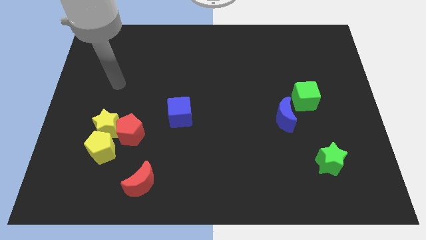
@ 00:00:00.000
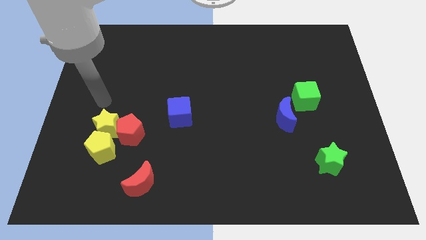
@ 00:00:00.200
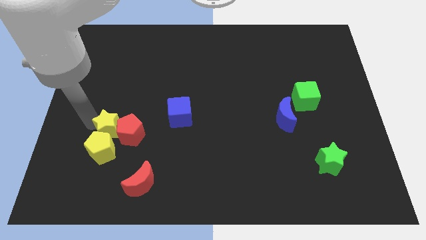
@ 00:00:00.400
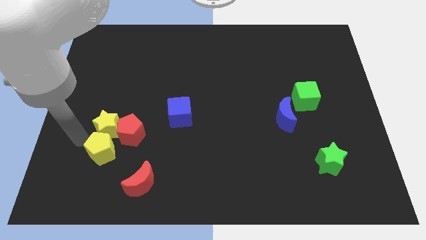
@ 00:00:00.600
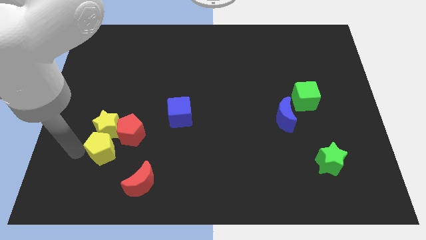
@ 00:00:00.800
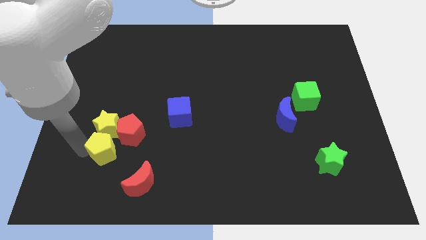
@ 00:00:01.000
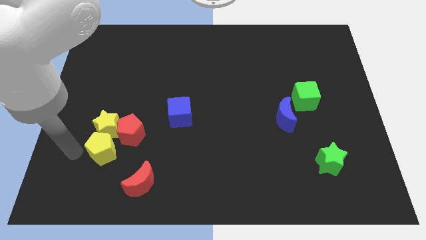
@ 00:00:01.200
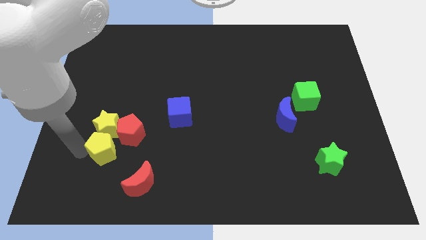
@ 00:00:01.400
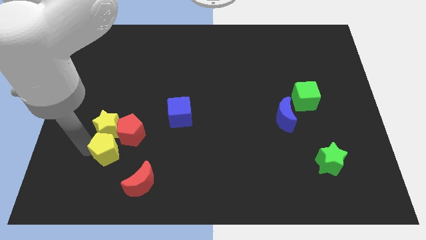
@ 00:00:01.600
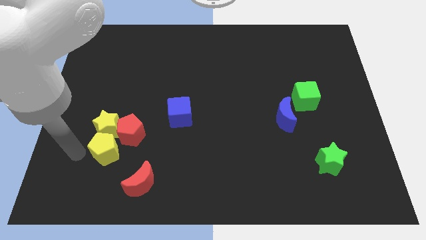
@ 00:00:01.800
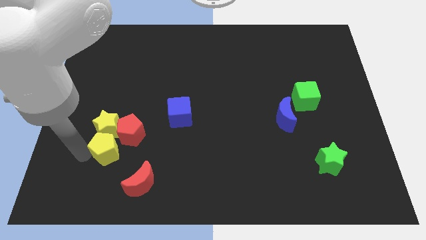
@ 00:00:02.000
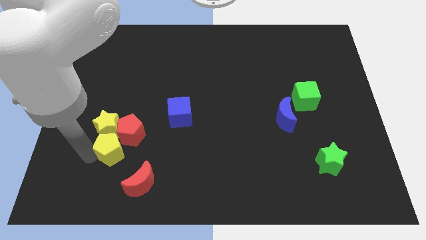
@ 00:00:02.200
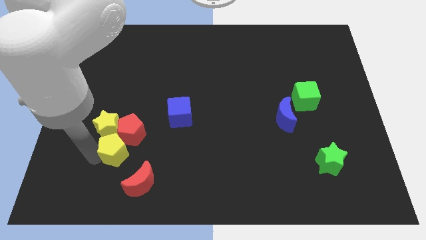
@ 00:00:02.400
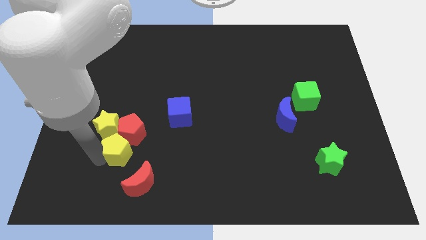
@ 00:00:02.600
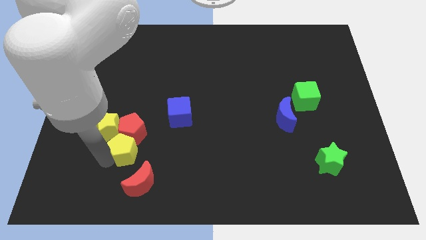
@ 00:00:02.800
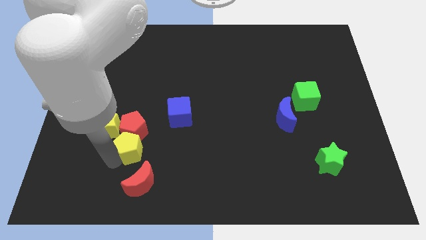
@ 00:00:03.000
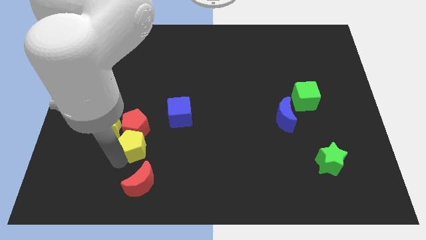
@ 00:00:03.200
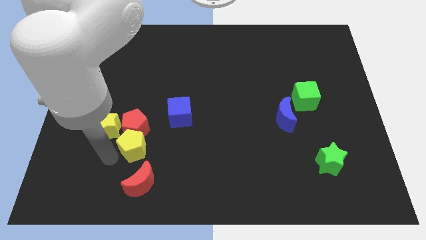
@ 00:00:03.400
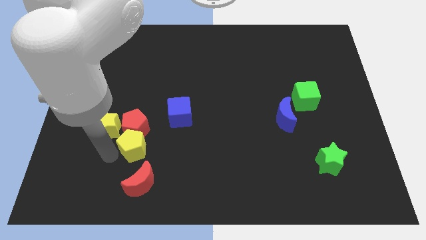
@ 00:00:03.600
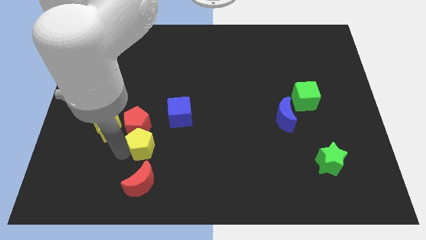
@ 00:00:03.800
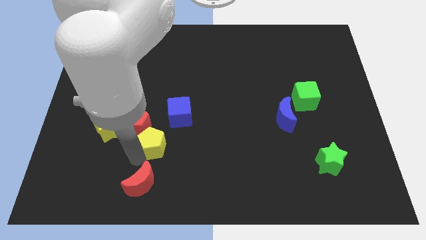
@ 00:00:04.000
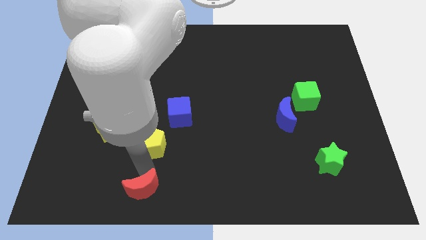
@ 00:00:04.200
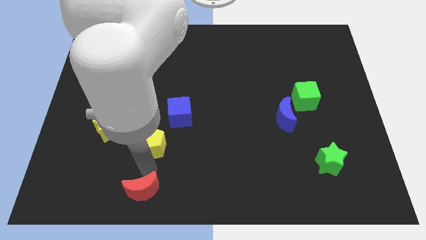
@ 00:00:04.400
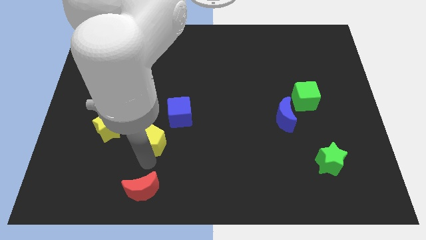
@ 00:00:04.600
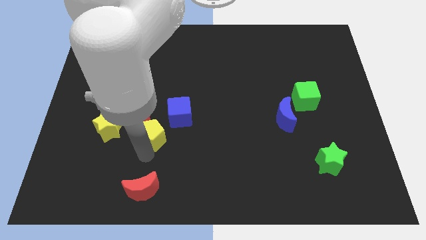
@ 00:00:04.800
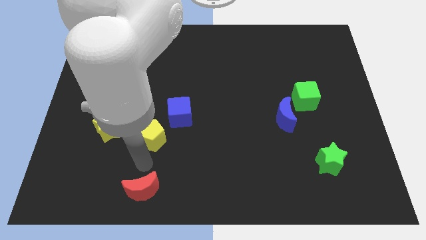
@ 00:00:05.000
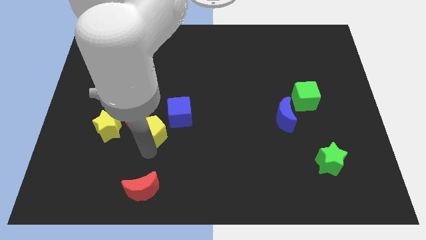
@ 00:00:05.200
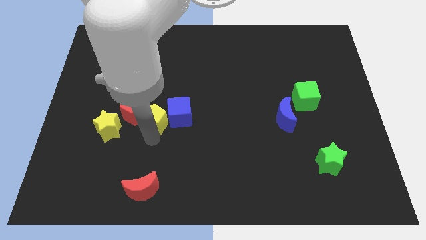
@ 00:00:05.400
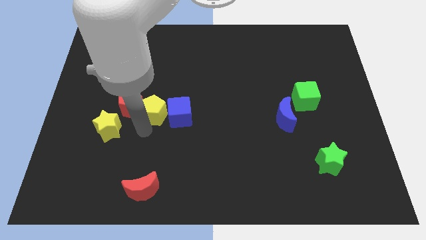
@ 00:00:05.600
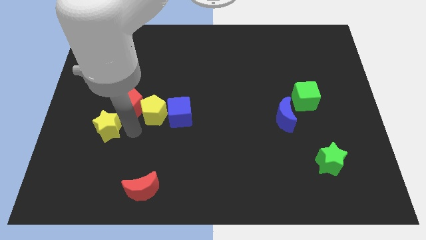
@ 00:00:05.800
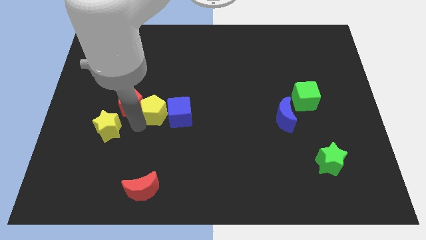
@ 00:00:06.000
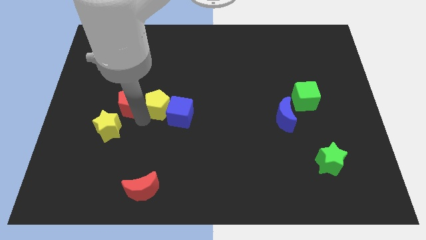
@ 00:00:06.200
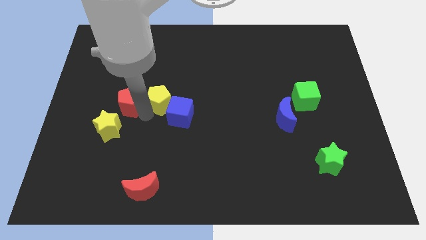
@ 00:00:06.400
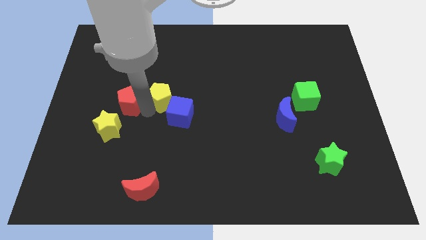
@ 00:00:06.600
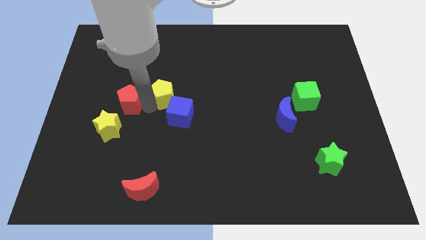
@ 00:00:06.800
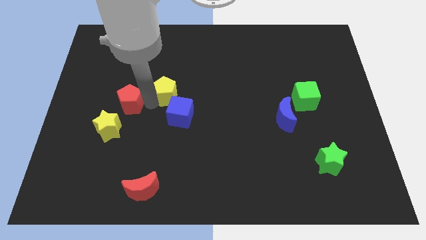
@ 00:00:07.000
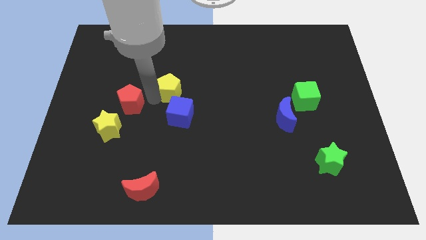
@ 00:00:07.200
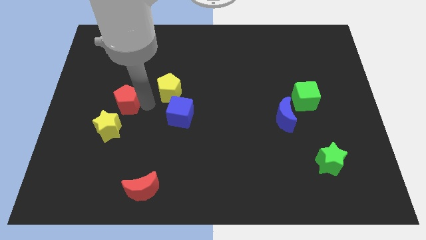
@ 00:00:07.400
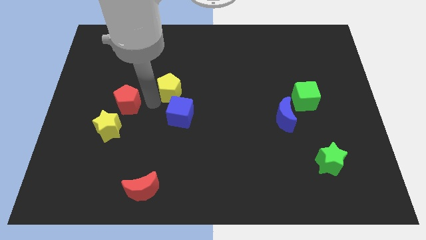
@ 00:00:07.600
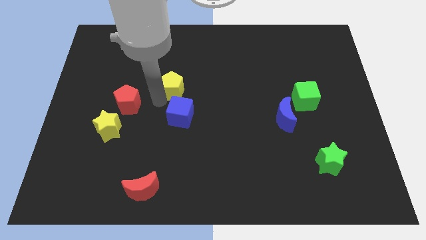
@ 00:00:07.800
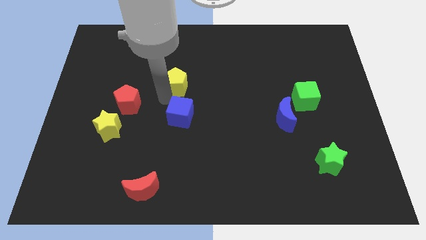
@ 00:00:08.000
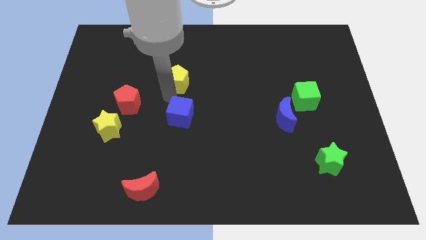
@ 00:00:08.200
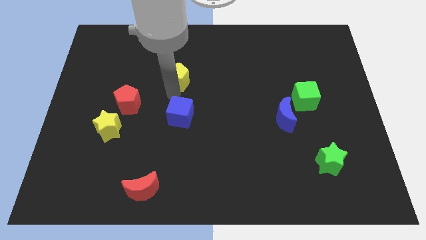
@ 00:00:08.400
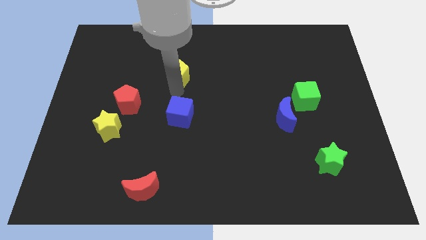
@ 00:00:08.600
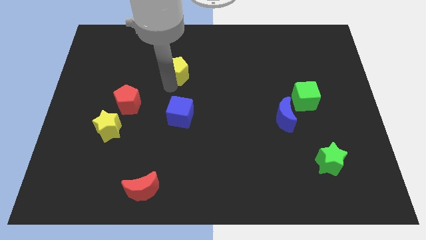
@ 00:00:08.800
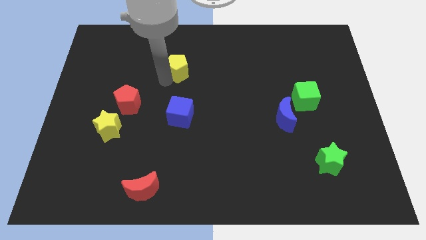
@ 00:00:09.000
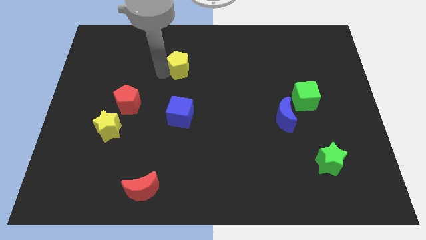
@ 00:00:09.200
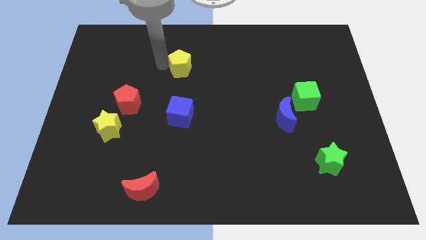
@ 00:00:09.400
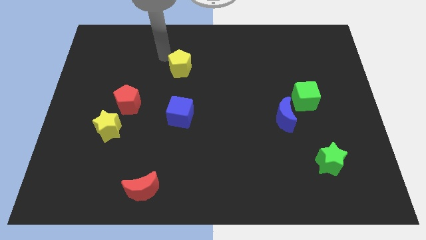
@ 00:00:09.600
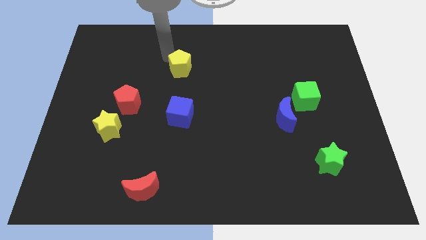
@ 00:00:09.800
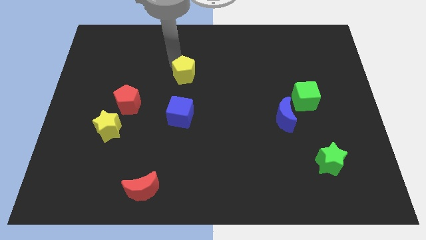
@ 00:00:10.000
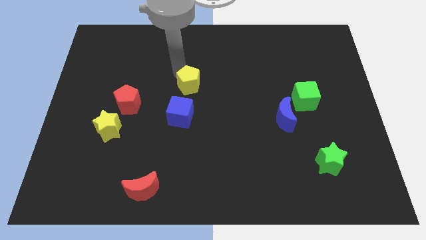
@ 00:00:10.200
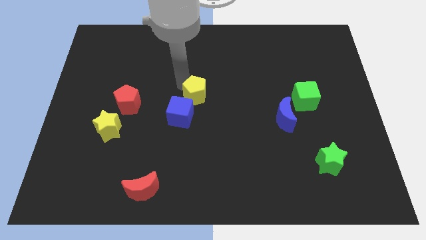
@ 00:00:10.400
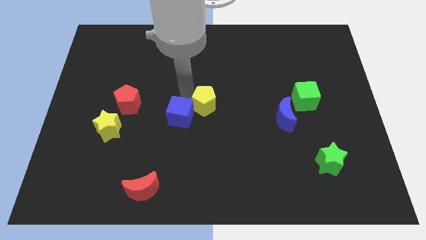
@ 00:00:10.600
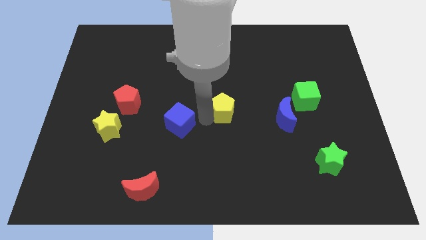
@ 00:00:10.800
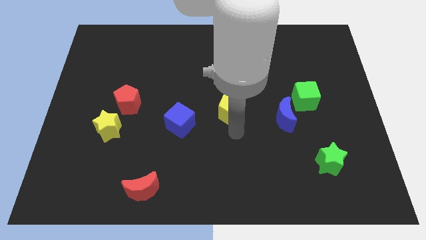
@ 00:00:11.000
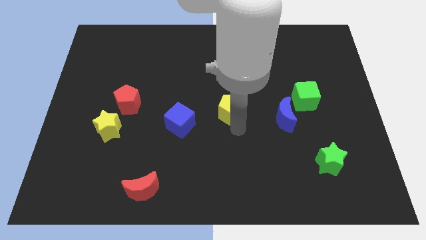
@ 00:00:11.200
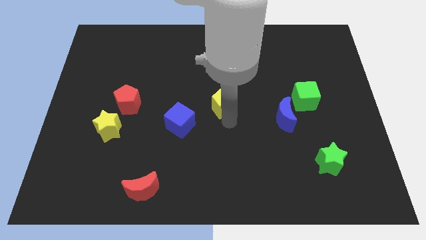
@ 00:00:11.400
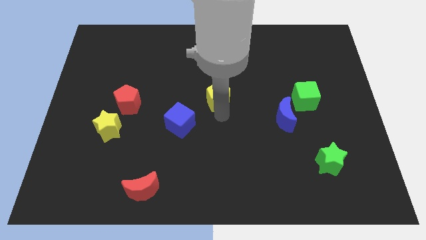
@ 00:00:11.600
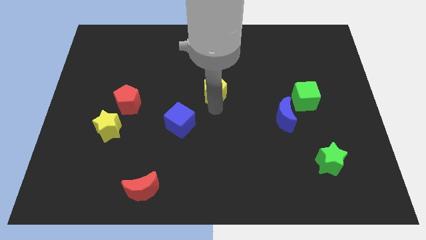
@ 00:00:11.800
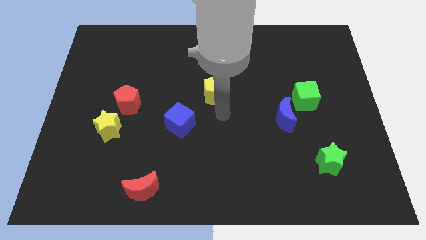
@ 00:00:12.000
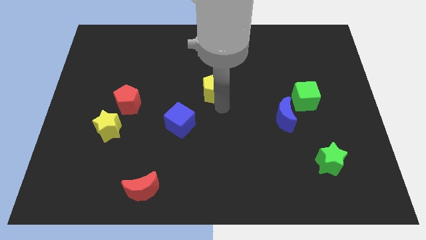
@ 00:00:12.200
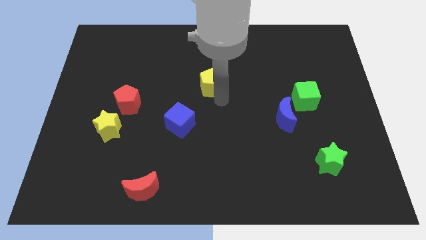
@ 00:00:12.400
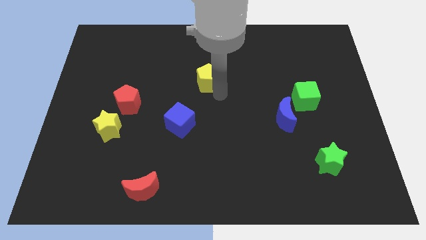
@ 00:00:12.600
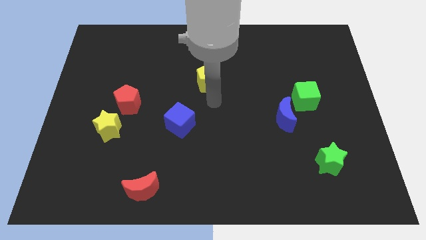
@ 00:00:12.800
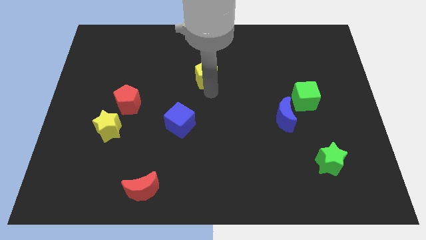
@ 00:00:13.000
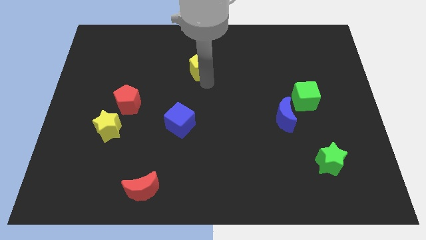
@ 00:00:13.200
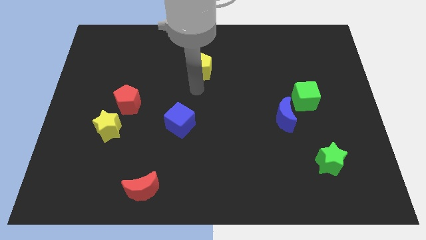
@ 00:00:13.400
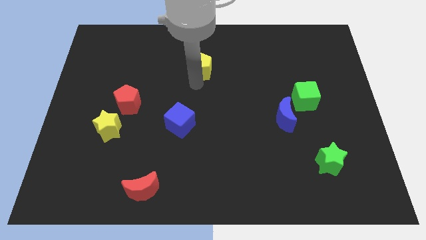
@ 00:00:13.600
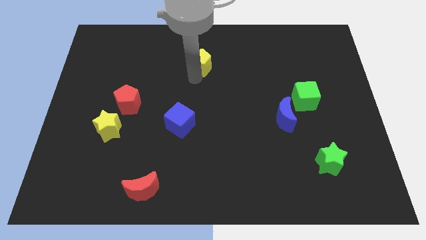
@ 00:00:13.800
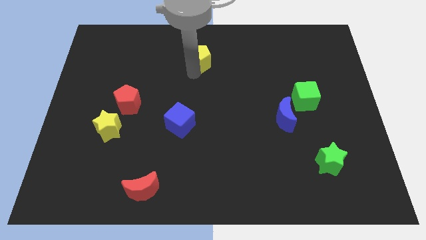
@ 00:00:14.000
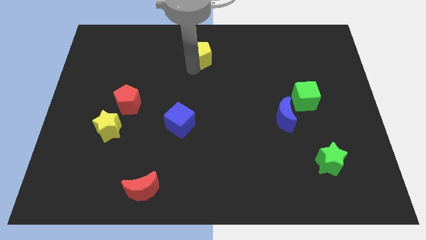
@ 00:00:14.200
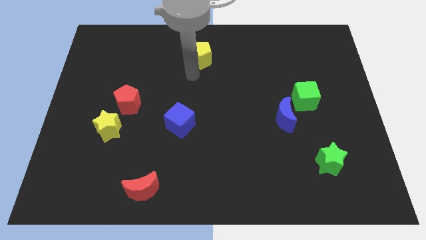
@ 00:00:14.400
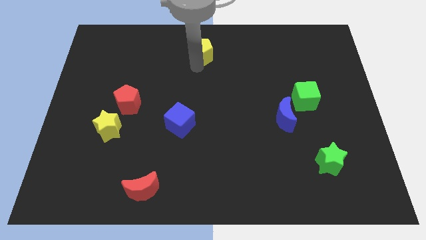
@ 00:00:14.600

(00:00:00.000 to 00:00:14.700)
move the yellow pentagon to the top side
